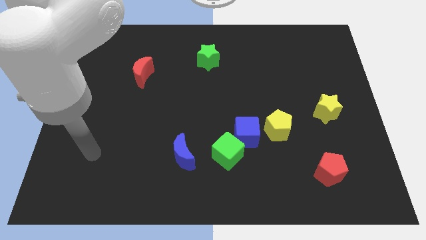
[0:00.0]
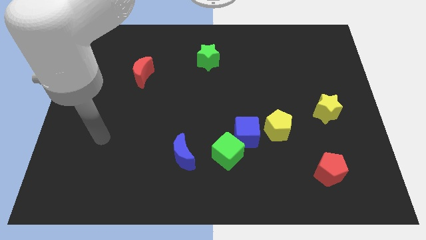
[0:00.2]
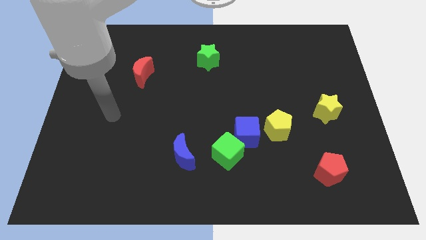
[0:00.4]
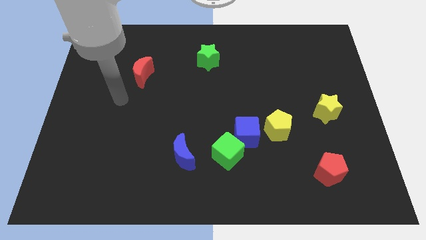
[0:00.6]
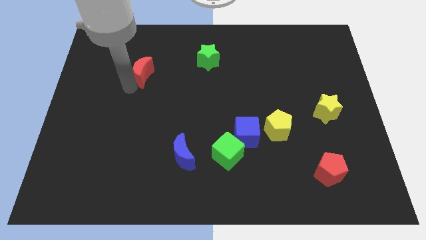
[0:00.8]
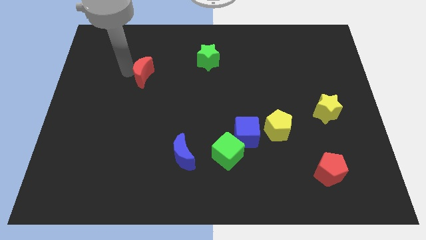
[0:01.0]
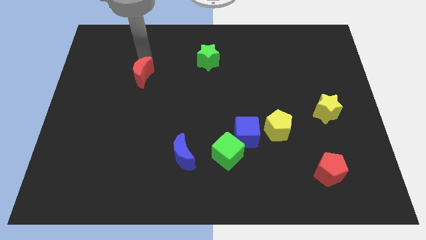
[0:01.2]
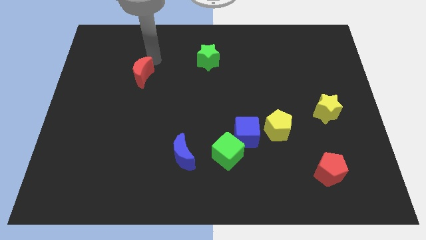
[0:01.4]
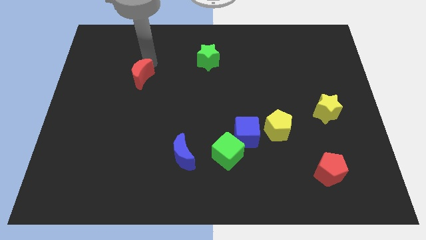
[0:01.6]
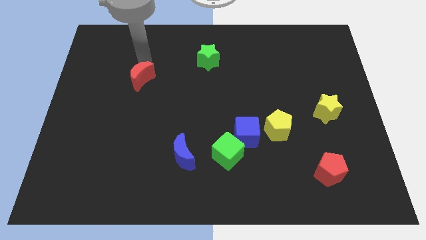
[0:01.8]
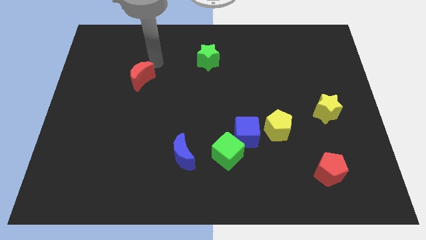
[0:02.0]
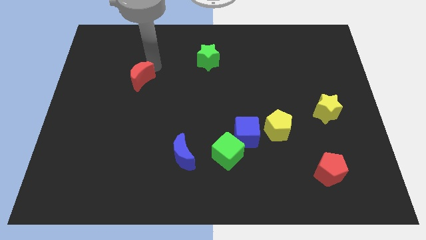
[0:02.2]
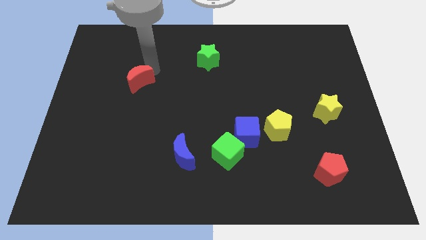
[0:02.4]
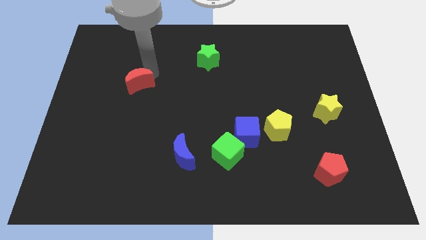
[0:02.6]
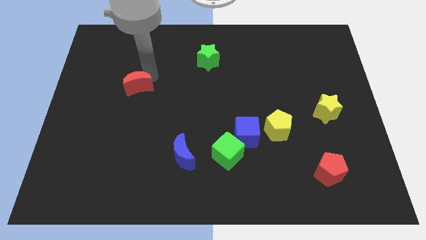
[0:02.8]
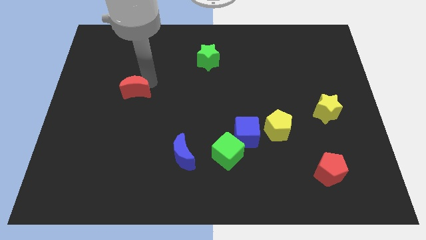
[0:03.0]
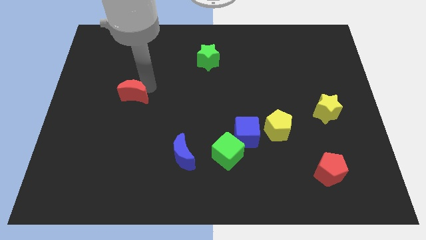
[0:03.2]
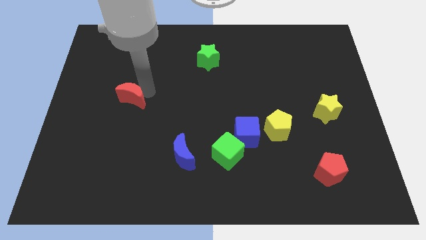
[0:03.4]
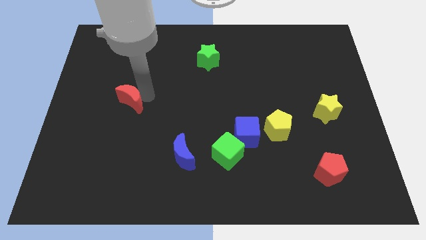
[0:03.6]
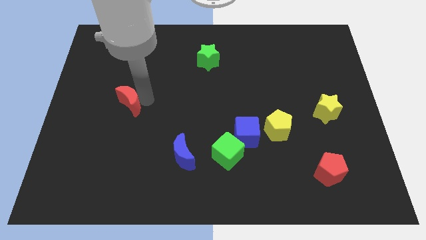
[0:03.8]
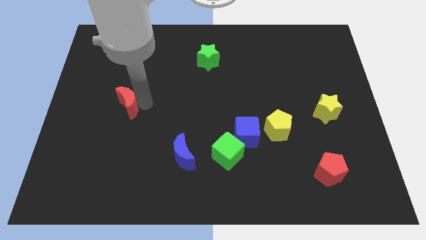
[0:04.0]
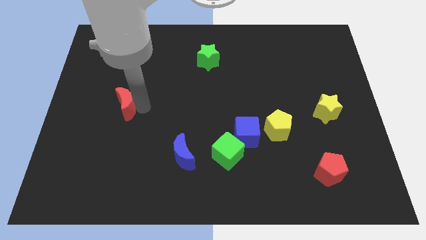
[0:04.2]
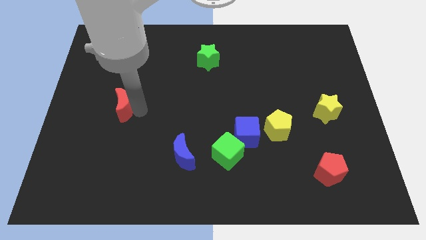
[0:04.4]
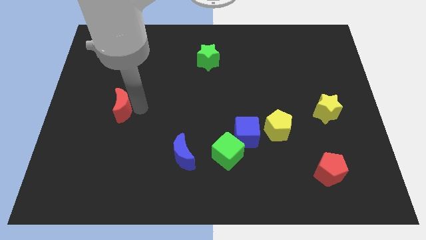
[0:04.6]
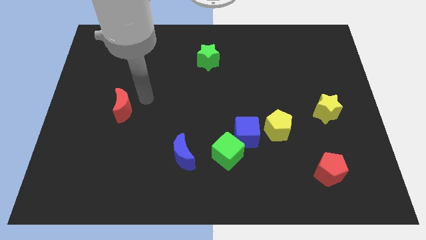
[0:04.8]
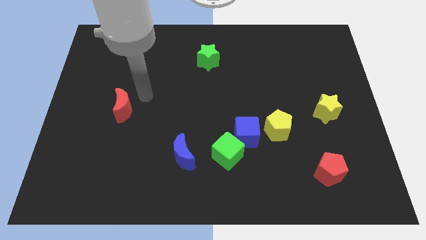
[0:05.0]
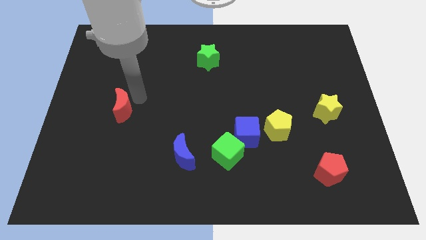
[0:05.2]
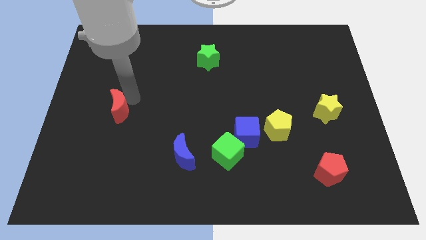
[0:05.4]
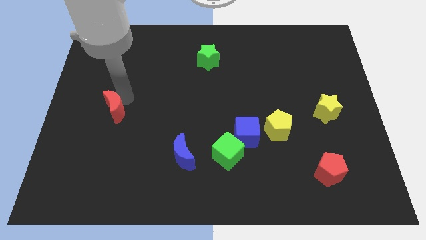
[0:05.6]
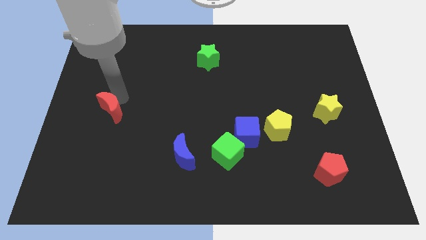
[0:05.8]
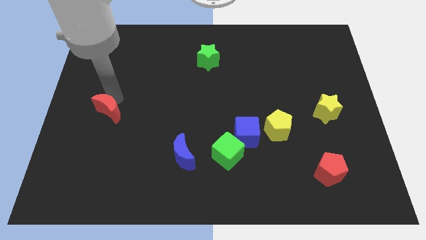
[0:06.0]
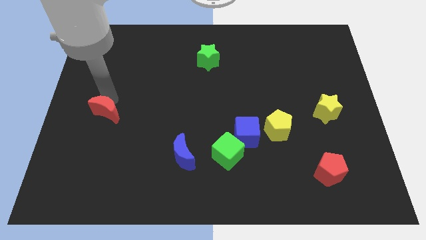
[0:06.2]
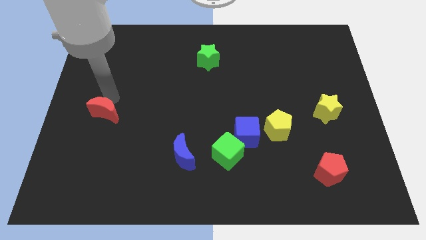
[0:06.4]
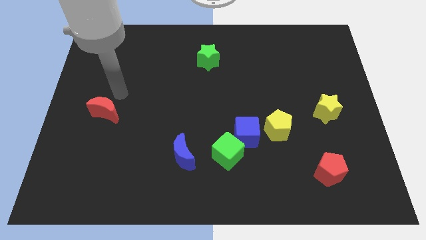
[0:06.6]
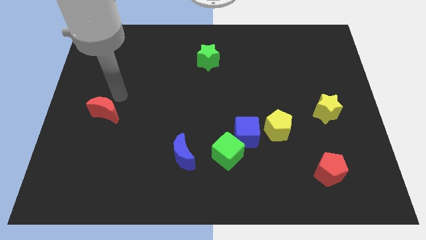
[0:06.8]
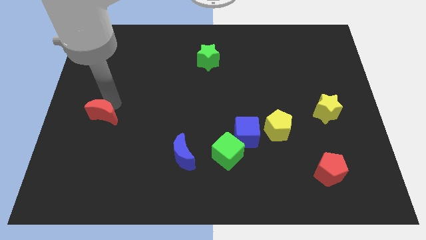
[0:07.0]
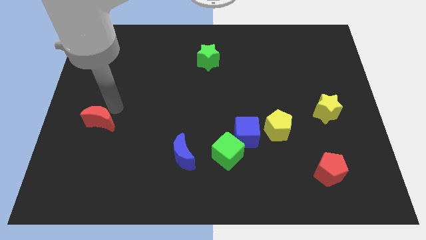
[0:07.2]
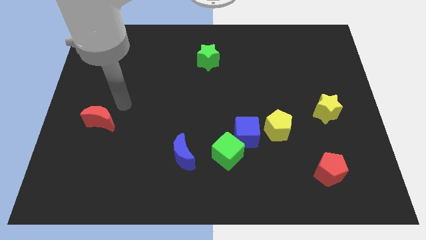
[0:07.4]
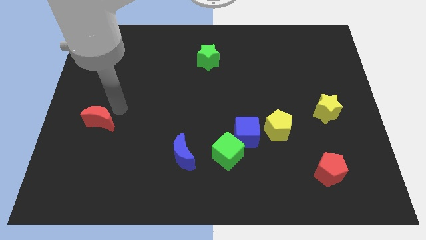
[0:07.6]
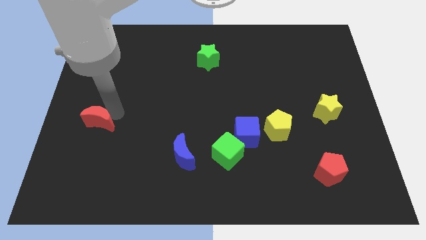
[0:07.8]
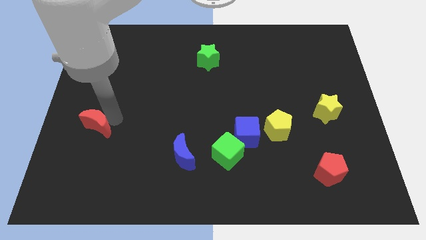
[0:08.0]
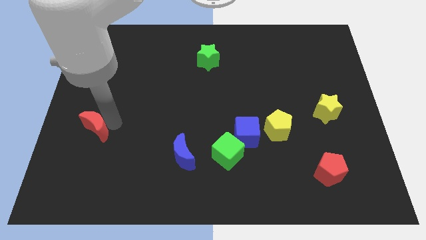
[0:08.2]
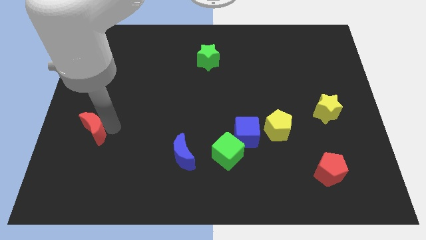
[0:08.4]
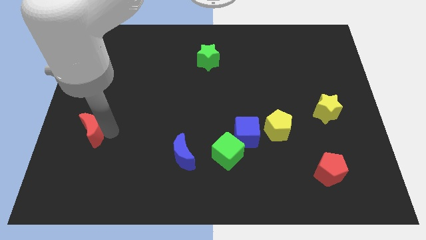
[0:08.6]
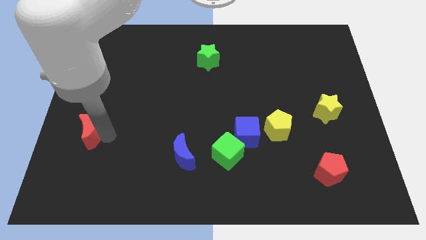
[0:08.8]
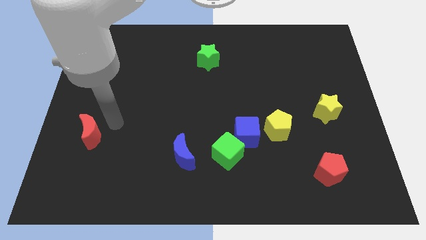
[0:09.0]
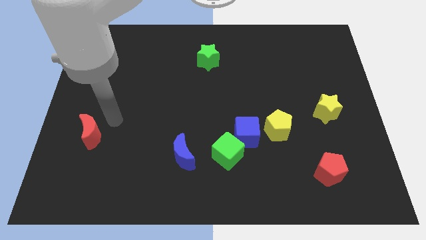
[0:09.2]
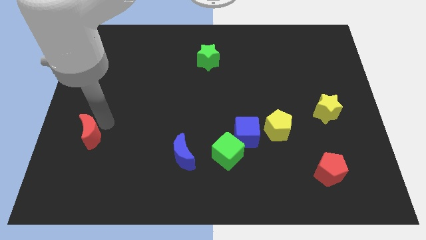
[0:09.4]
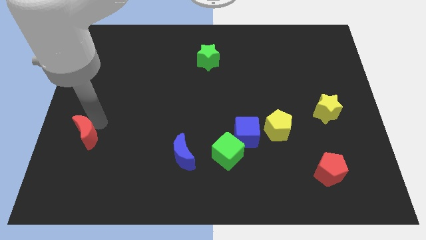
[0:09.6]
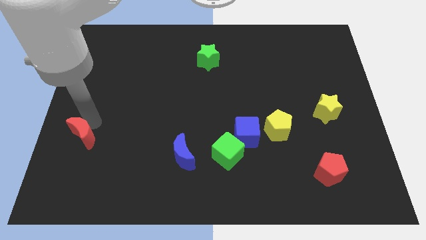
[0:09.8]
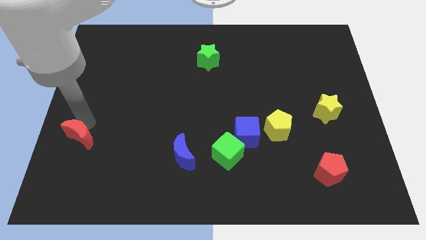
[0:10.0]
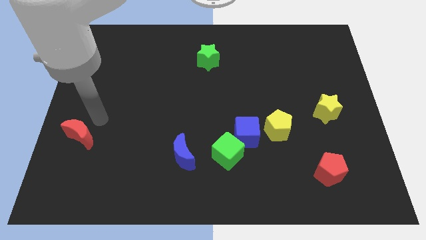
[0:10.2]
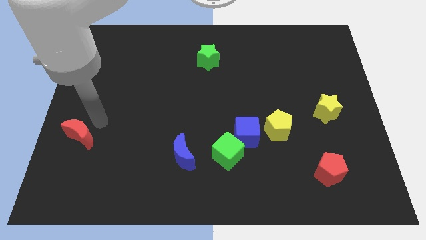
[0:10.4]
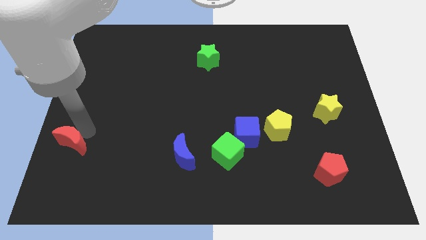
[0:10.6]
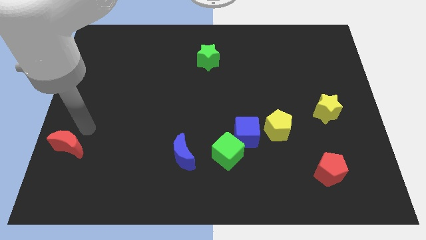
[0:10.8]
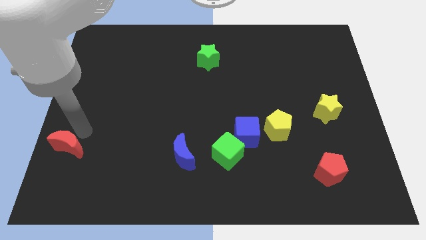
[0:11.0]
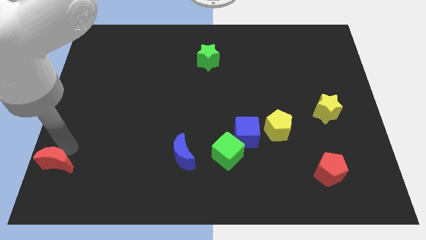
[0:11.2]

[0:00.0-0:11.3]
slide the red moon to the lower left corner

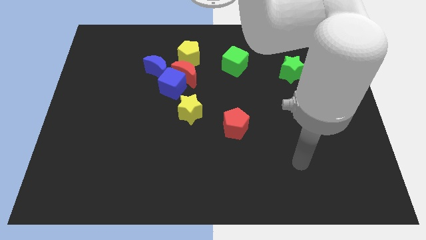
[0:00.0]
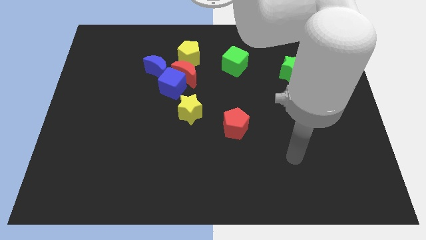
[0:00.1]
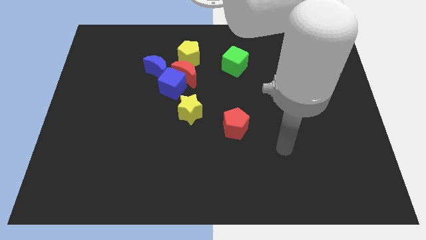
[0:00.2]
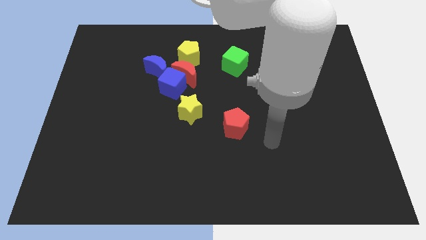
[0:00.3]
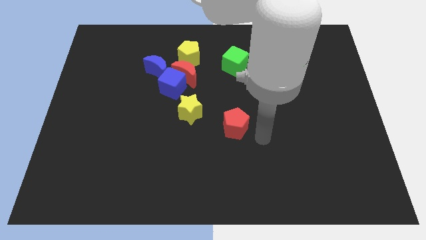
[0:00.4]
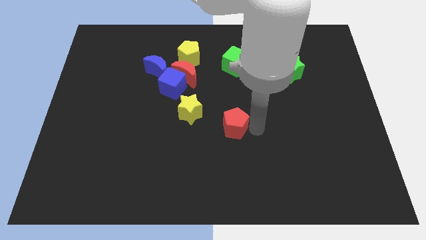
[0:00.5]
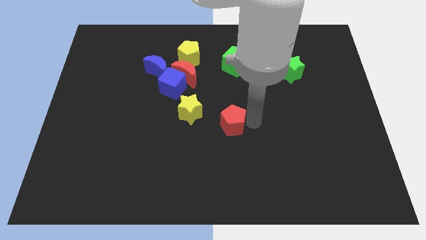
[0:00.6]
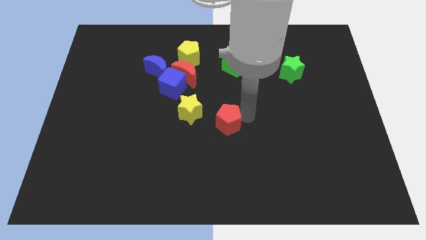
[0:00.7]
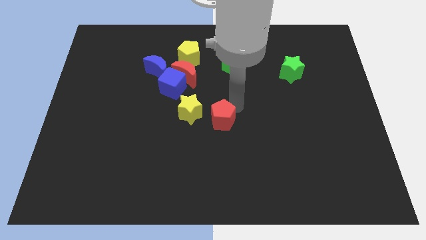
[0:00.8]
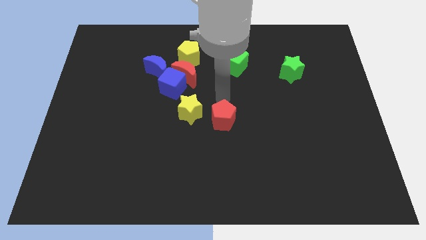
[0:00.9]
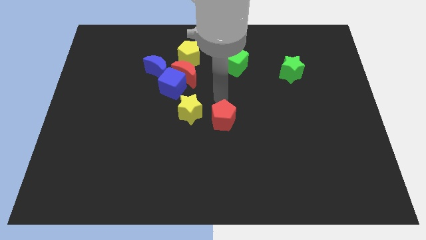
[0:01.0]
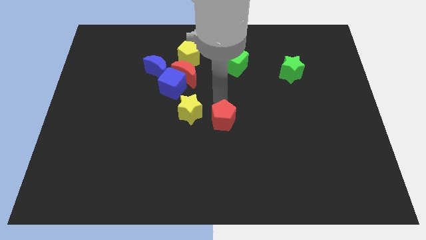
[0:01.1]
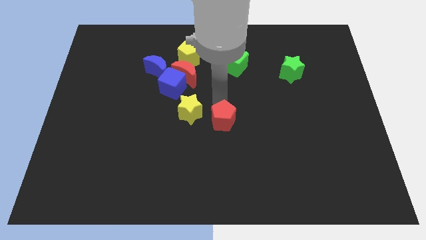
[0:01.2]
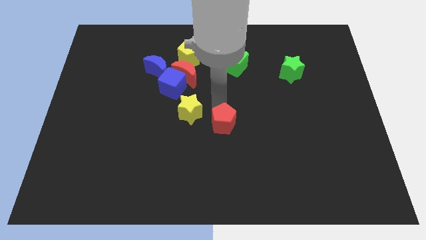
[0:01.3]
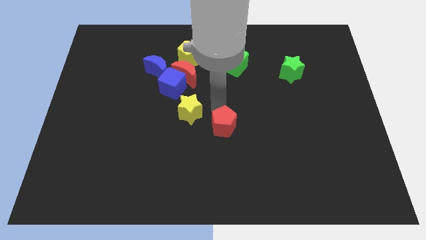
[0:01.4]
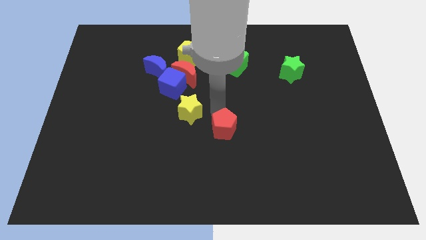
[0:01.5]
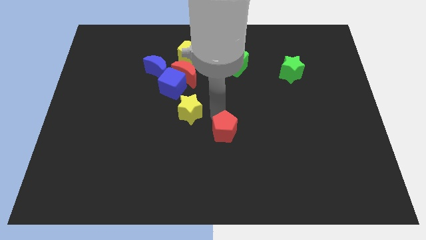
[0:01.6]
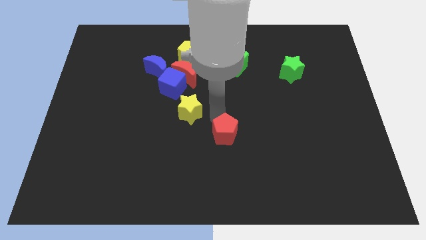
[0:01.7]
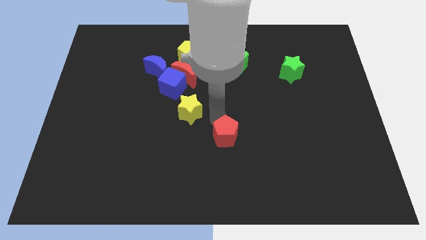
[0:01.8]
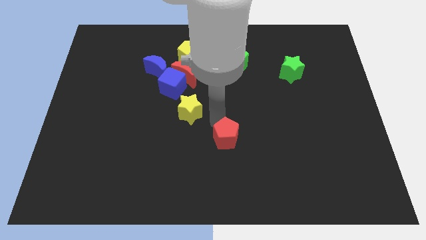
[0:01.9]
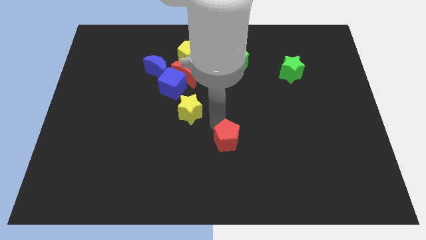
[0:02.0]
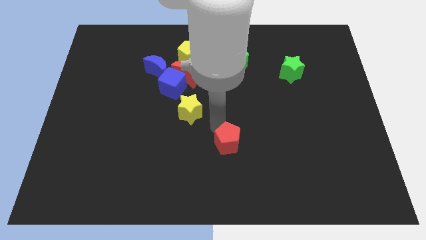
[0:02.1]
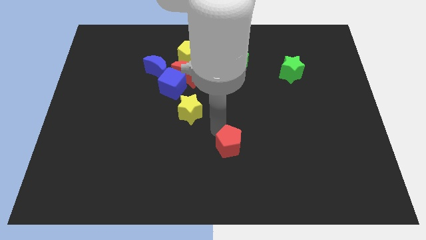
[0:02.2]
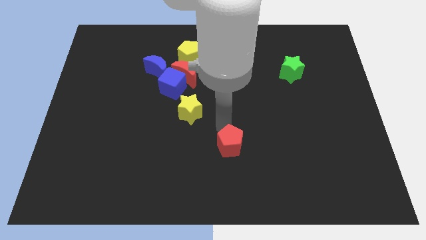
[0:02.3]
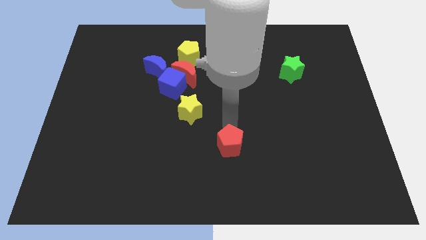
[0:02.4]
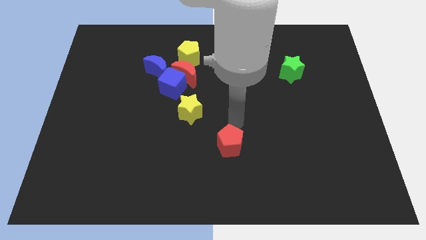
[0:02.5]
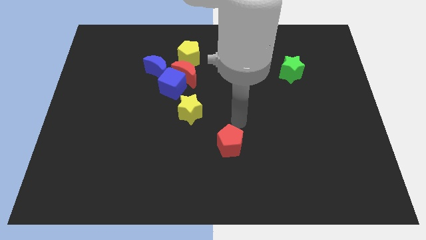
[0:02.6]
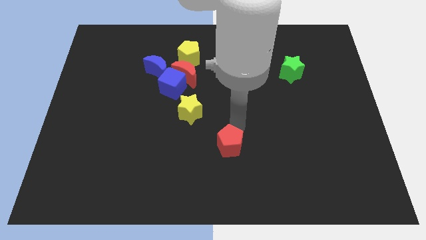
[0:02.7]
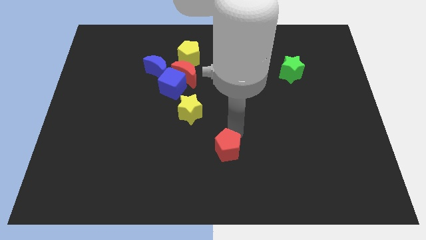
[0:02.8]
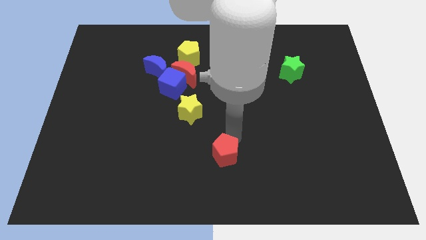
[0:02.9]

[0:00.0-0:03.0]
push the red pentagon to the bottom
